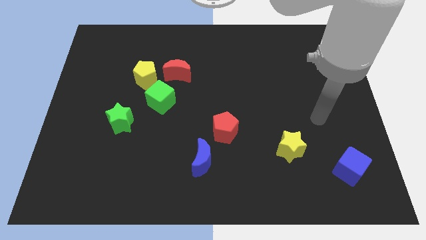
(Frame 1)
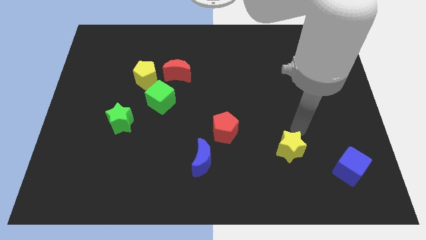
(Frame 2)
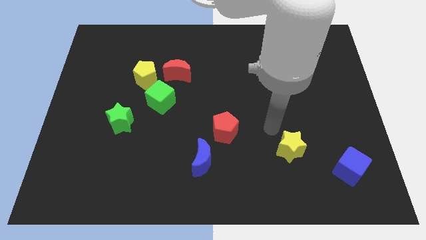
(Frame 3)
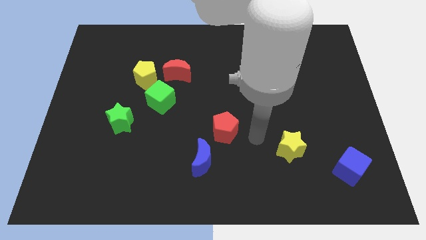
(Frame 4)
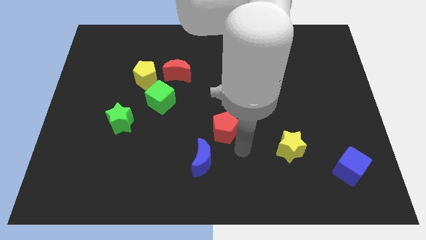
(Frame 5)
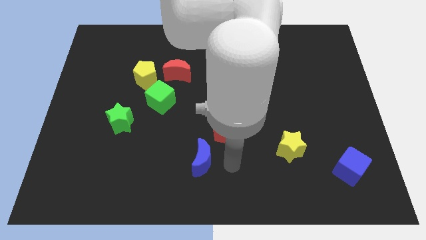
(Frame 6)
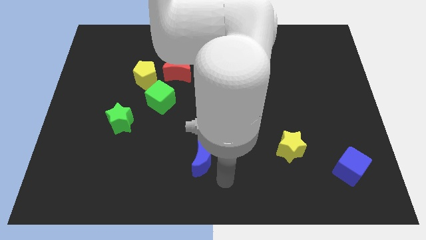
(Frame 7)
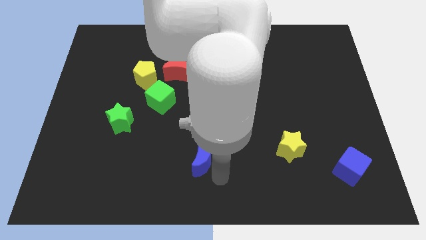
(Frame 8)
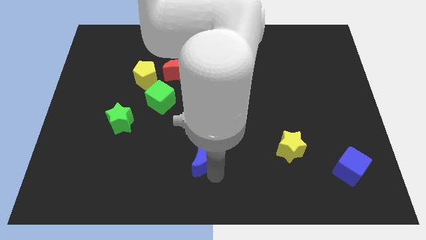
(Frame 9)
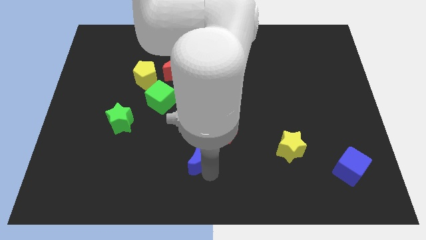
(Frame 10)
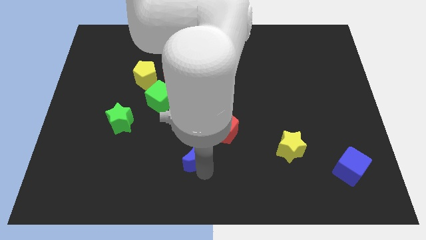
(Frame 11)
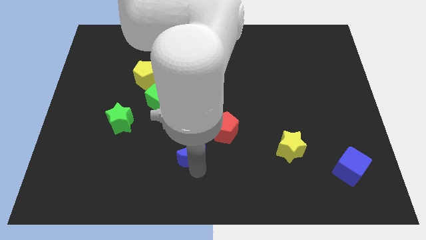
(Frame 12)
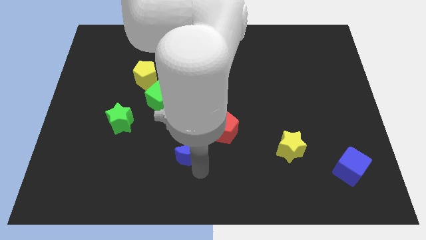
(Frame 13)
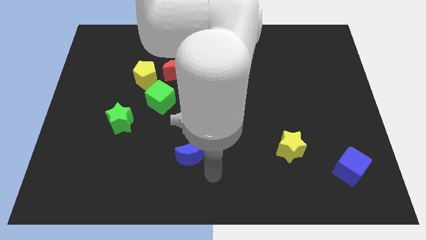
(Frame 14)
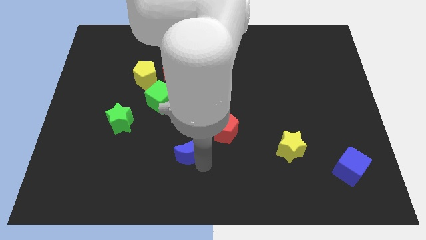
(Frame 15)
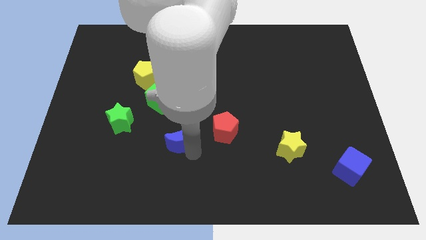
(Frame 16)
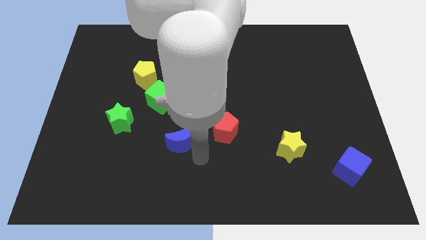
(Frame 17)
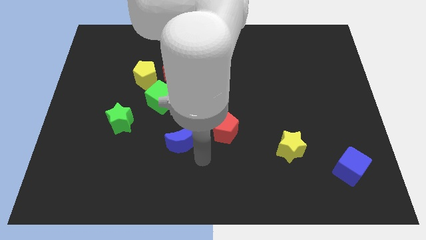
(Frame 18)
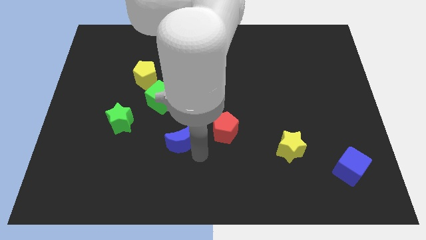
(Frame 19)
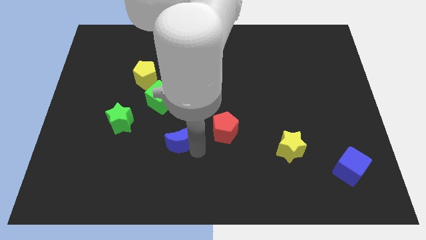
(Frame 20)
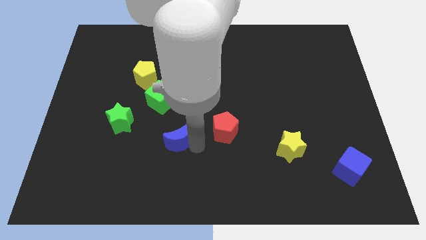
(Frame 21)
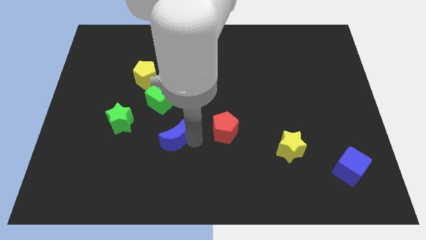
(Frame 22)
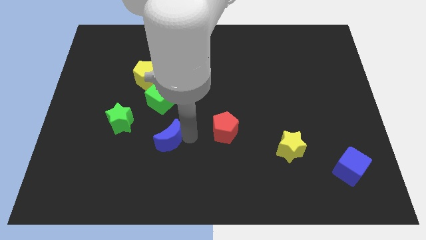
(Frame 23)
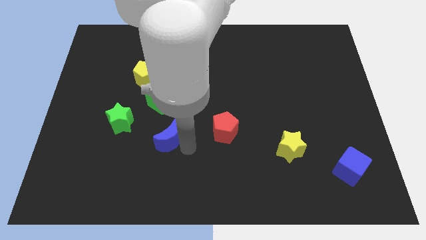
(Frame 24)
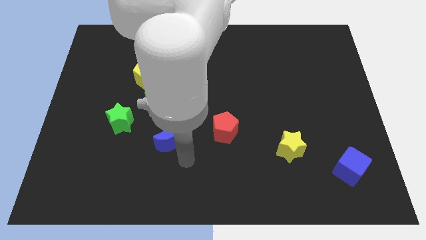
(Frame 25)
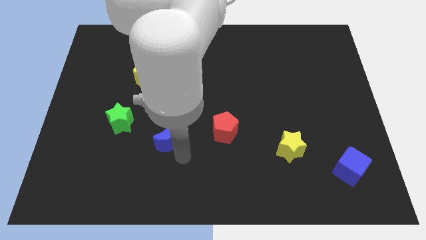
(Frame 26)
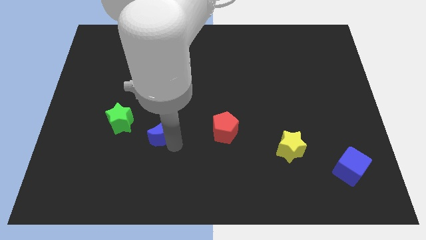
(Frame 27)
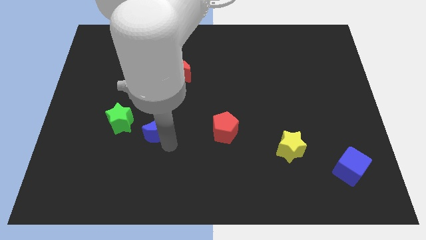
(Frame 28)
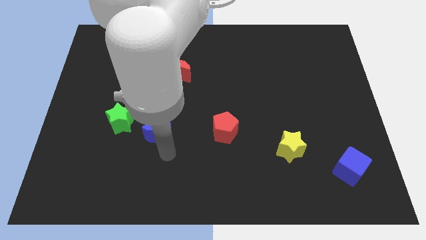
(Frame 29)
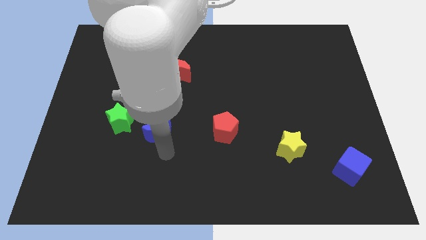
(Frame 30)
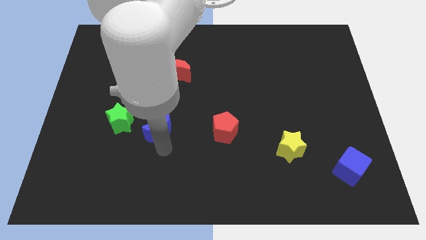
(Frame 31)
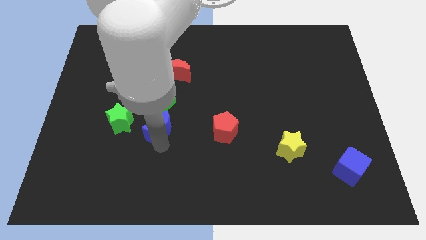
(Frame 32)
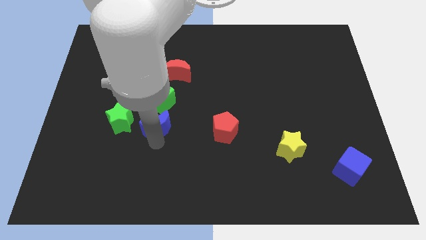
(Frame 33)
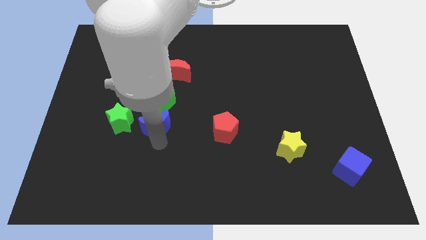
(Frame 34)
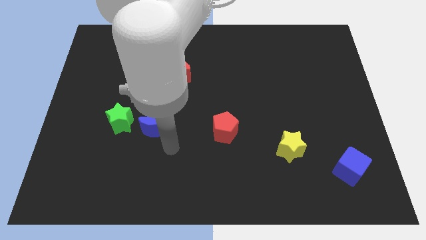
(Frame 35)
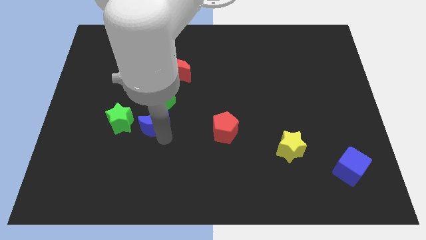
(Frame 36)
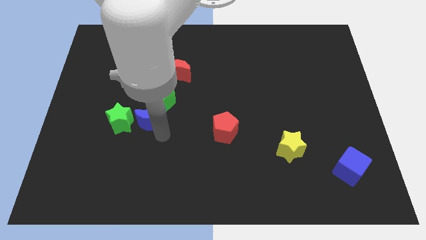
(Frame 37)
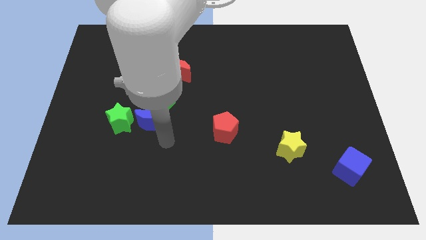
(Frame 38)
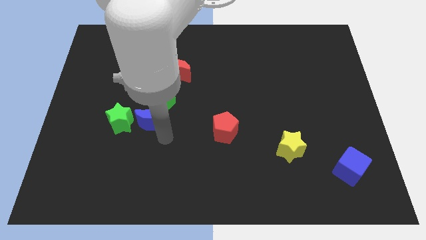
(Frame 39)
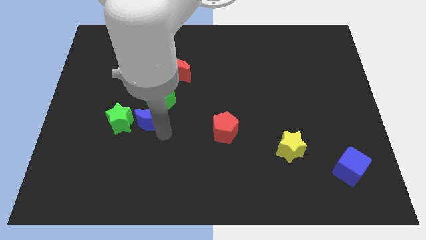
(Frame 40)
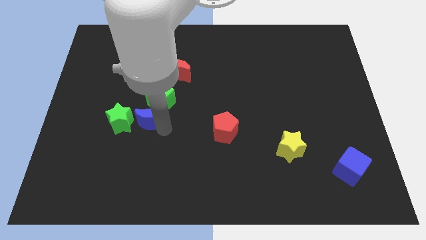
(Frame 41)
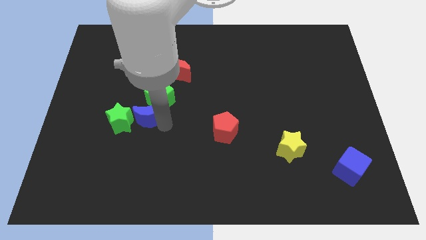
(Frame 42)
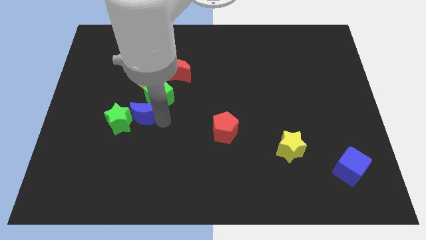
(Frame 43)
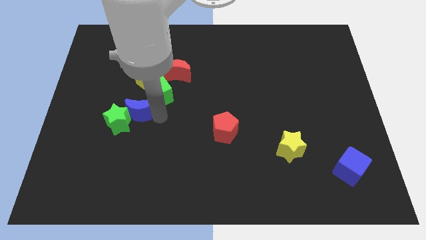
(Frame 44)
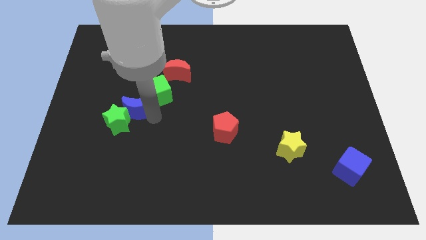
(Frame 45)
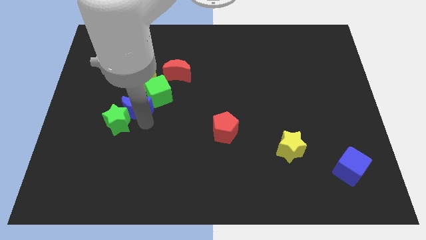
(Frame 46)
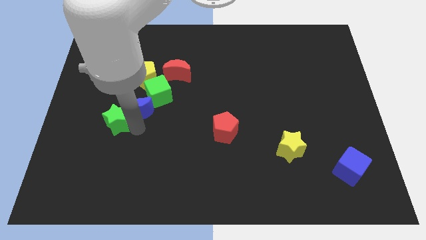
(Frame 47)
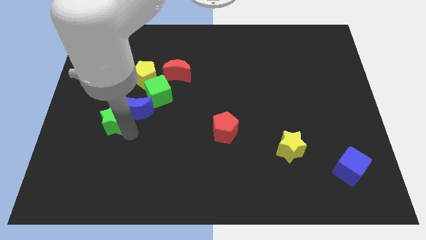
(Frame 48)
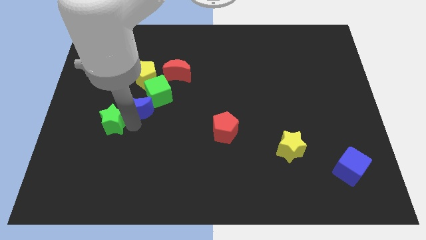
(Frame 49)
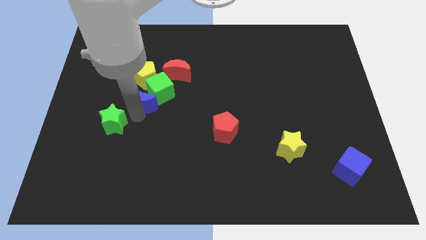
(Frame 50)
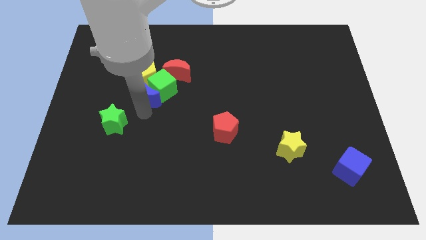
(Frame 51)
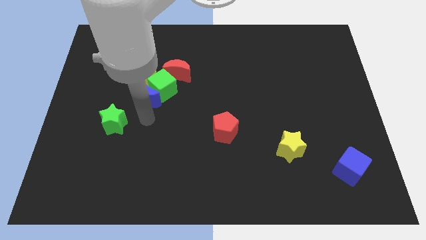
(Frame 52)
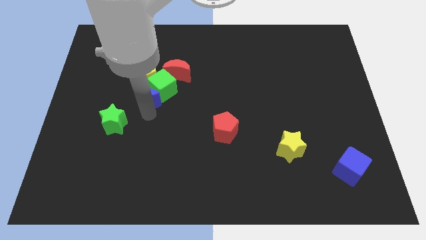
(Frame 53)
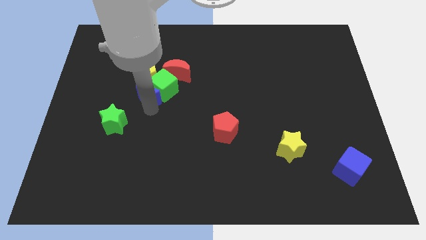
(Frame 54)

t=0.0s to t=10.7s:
slide the blue moon towards the yellow pentagon

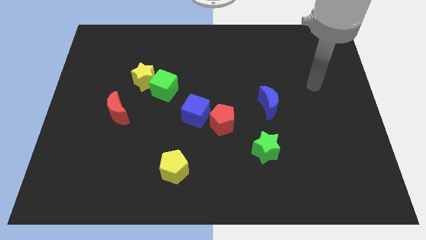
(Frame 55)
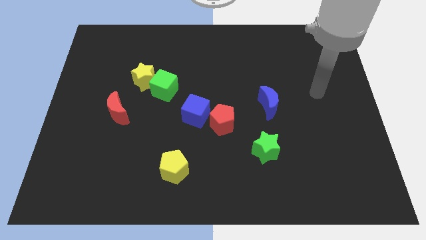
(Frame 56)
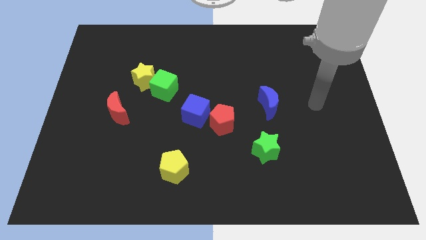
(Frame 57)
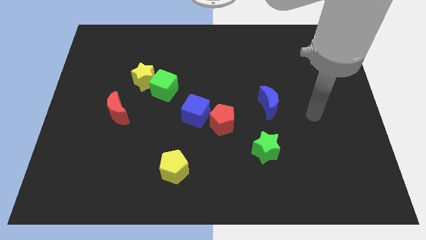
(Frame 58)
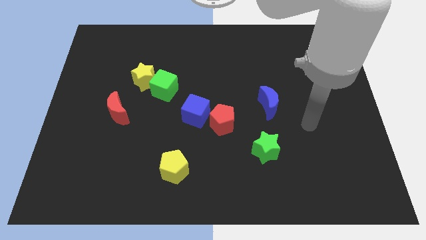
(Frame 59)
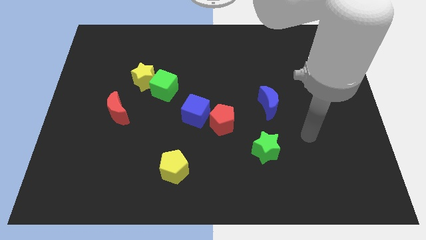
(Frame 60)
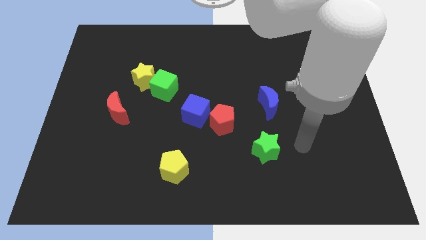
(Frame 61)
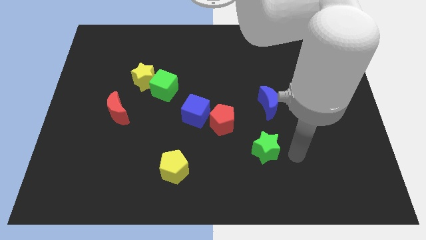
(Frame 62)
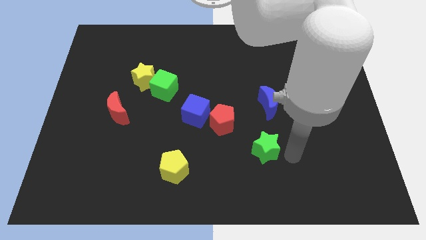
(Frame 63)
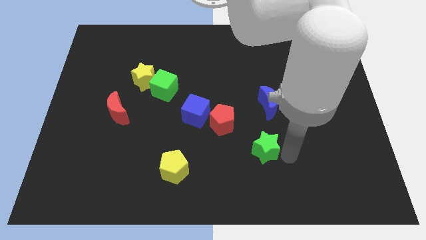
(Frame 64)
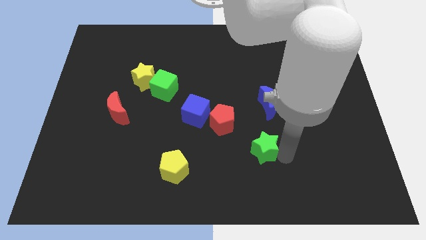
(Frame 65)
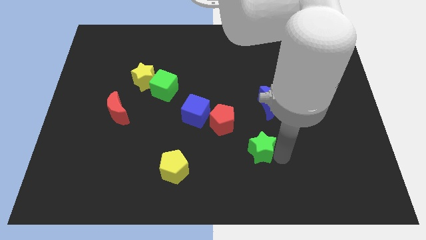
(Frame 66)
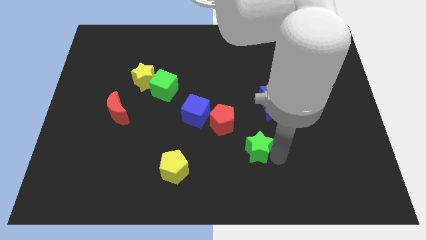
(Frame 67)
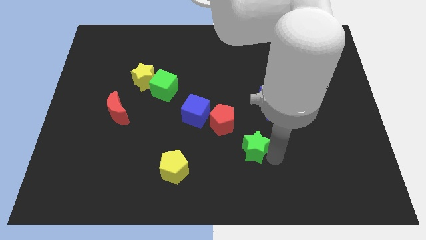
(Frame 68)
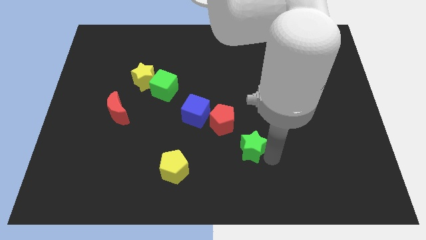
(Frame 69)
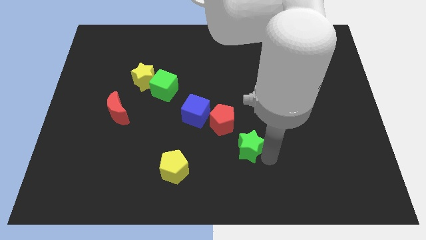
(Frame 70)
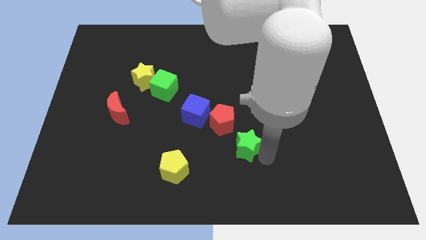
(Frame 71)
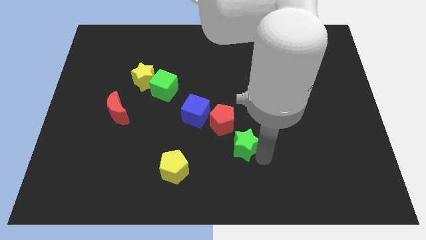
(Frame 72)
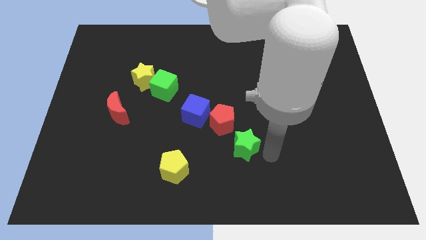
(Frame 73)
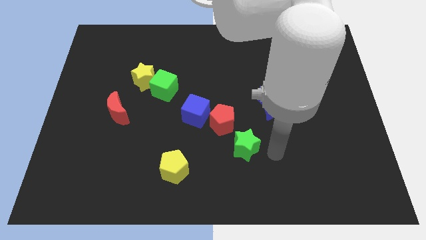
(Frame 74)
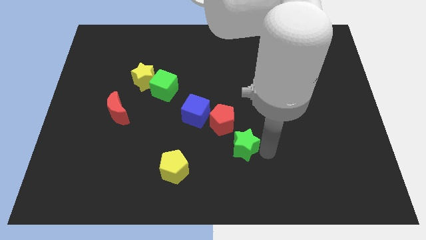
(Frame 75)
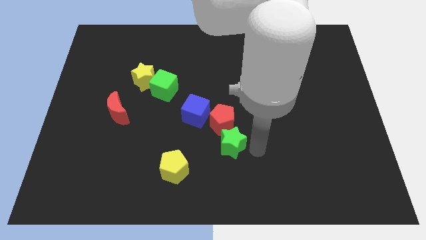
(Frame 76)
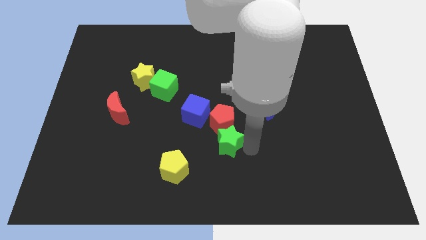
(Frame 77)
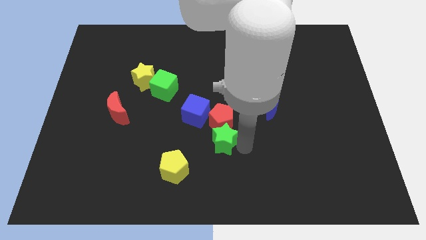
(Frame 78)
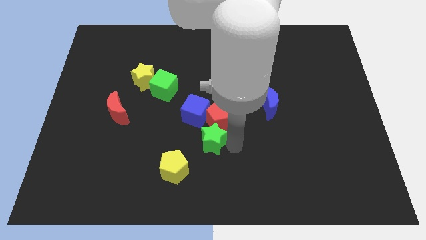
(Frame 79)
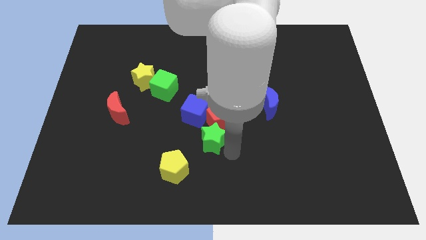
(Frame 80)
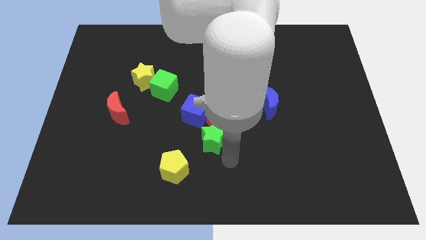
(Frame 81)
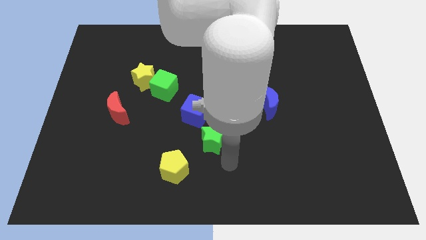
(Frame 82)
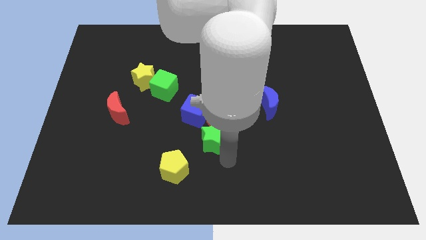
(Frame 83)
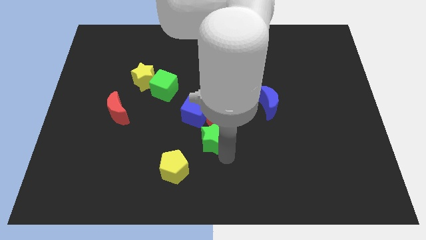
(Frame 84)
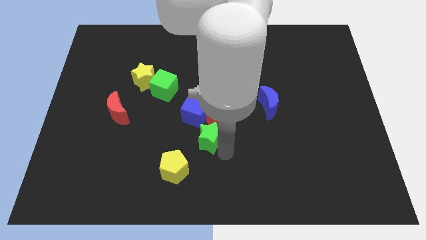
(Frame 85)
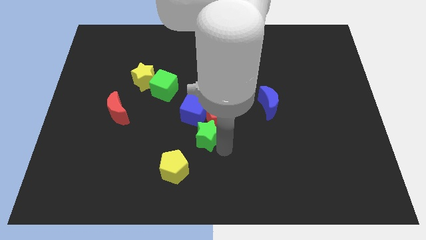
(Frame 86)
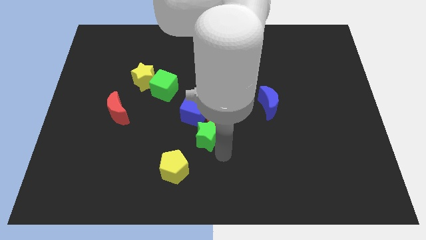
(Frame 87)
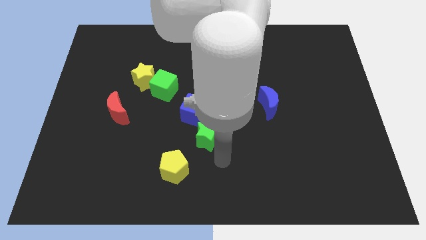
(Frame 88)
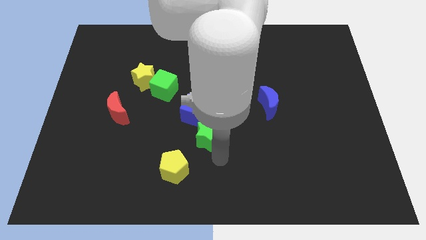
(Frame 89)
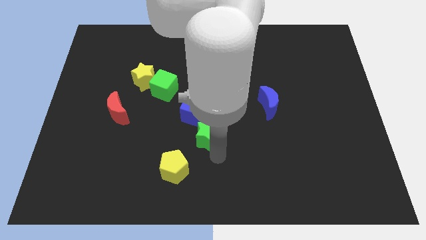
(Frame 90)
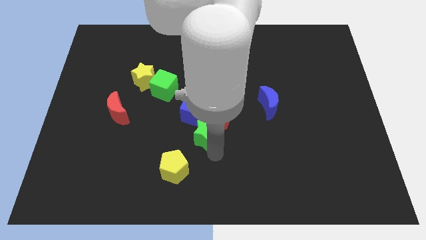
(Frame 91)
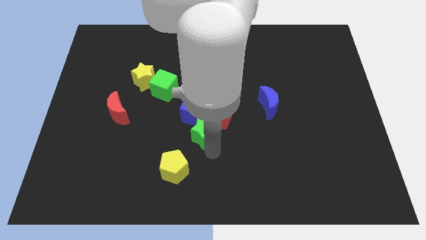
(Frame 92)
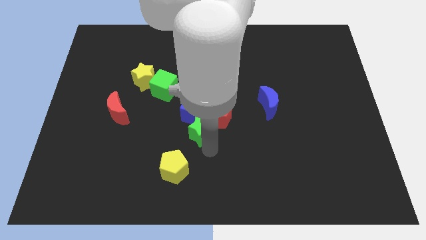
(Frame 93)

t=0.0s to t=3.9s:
slide the green star towards the blue cube
